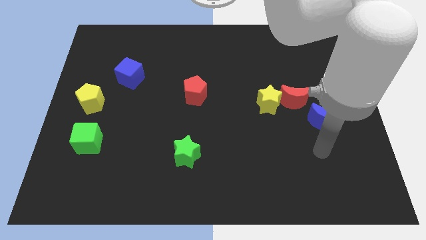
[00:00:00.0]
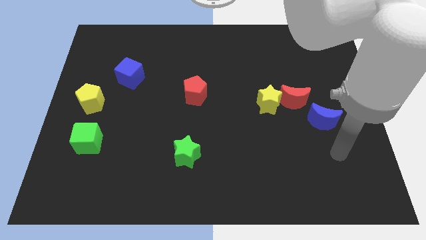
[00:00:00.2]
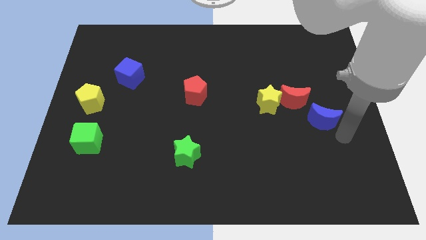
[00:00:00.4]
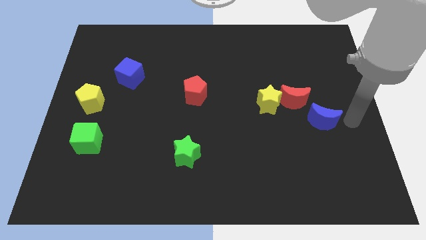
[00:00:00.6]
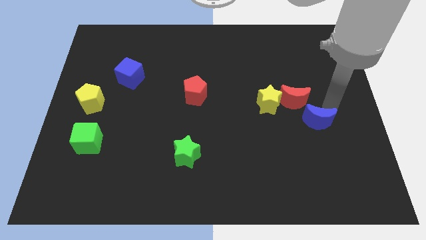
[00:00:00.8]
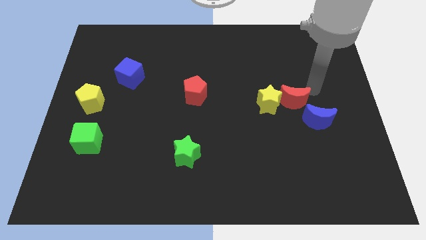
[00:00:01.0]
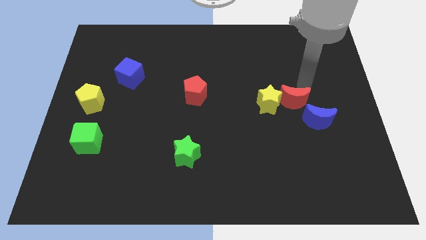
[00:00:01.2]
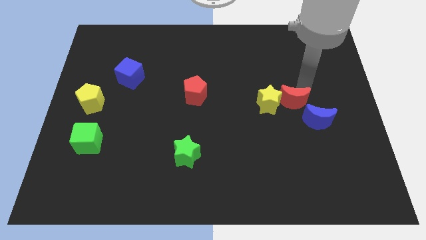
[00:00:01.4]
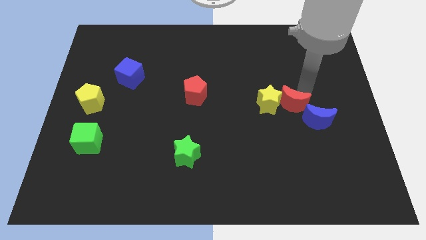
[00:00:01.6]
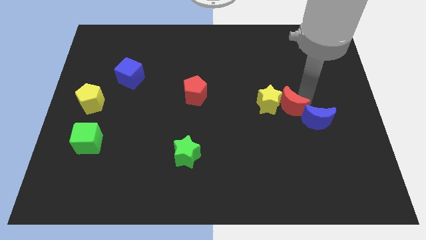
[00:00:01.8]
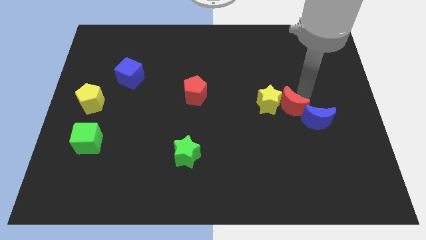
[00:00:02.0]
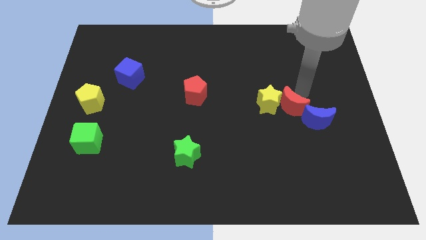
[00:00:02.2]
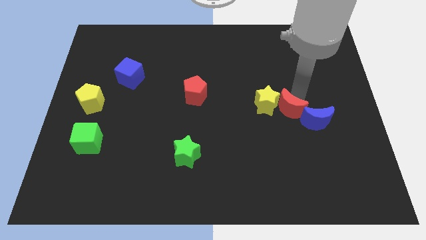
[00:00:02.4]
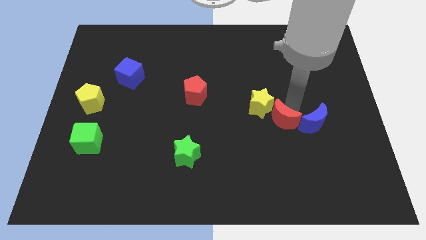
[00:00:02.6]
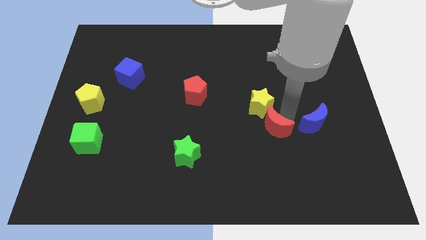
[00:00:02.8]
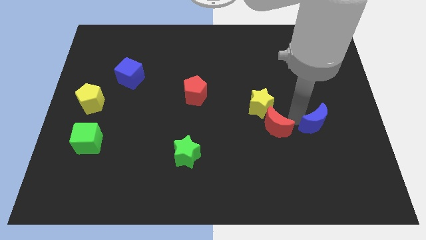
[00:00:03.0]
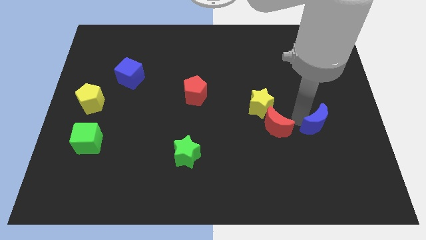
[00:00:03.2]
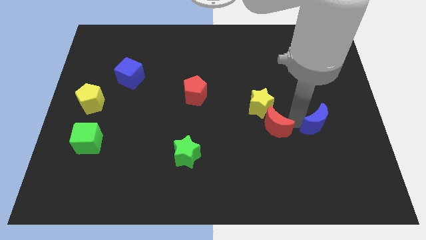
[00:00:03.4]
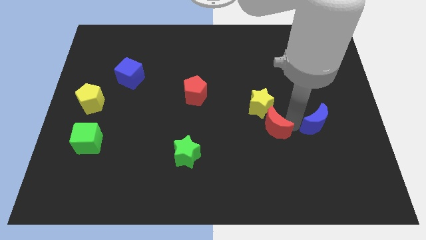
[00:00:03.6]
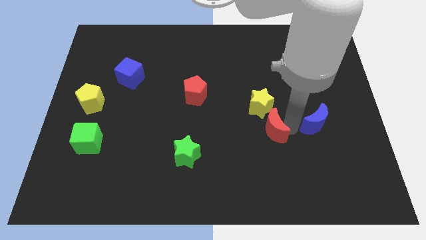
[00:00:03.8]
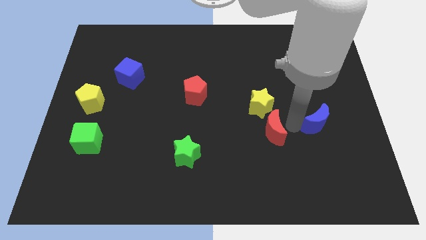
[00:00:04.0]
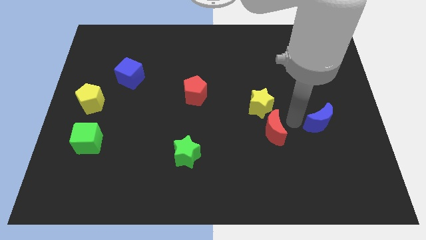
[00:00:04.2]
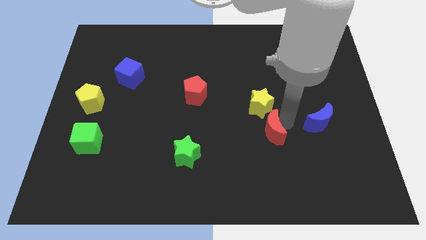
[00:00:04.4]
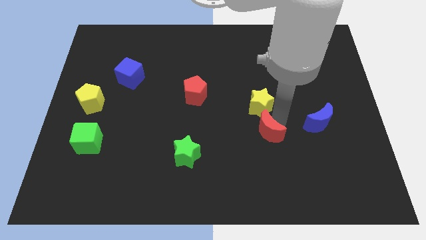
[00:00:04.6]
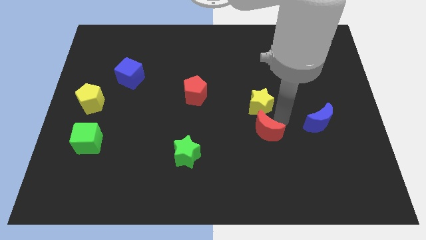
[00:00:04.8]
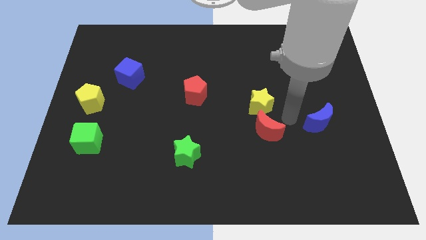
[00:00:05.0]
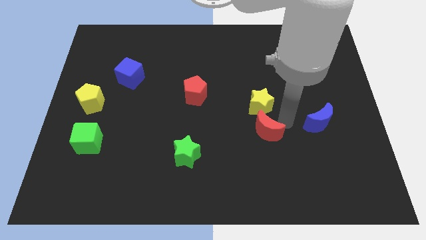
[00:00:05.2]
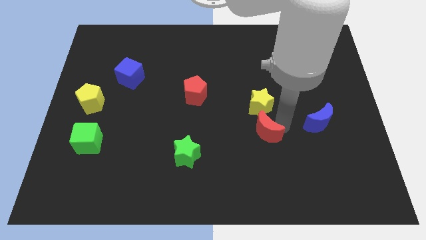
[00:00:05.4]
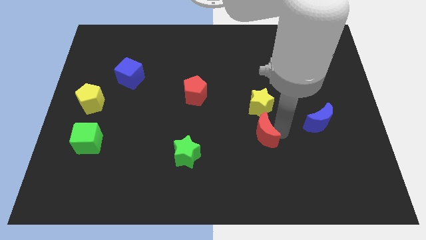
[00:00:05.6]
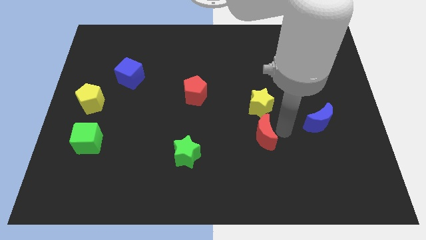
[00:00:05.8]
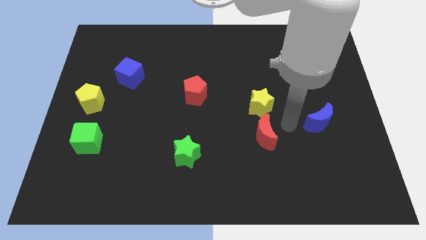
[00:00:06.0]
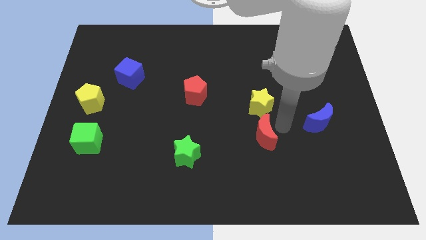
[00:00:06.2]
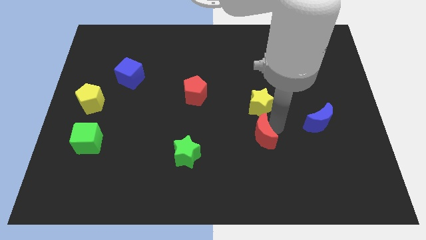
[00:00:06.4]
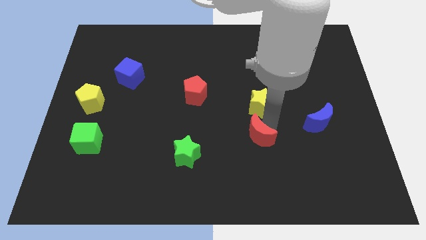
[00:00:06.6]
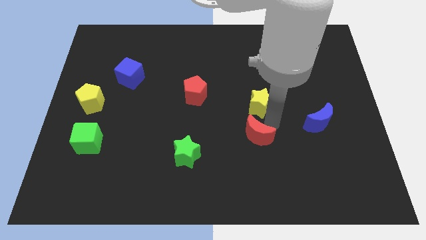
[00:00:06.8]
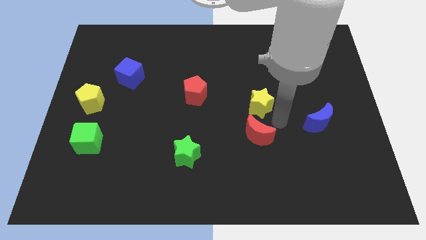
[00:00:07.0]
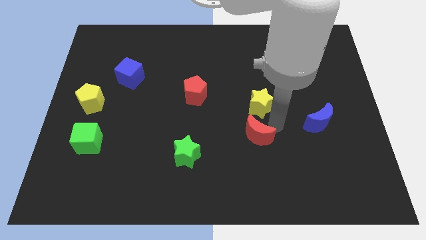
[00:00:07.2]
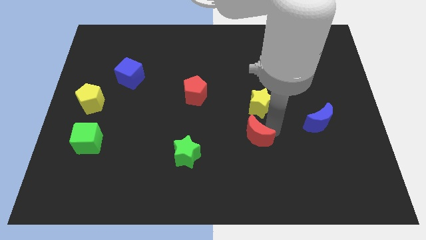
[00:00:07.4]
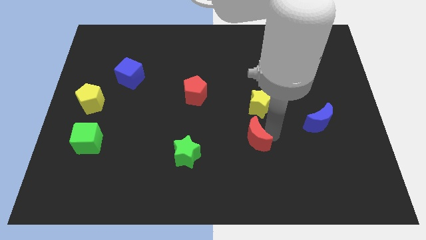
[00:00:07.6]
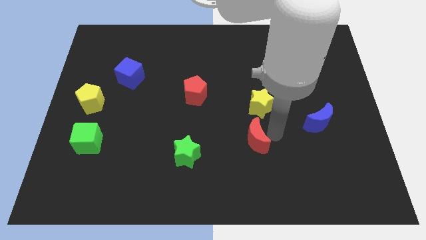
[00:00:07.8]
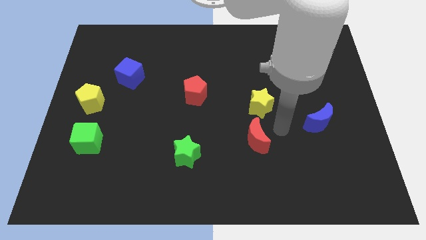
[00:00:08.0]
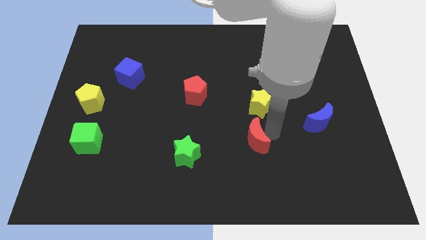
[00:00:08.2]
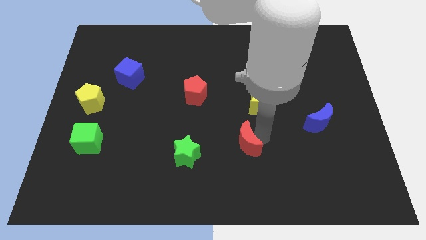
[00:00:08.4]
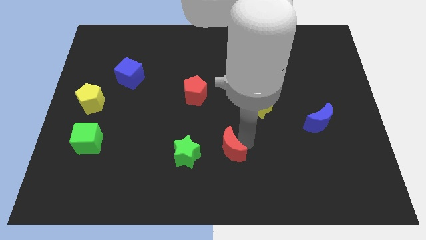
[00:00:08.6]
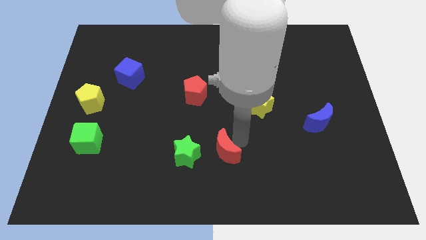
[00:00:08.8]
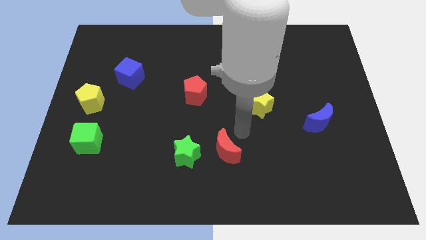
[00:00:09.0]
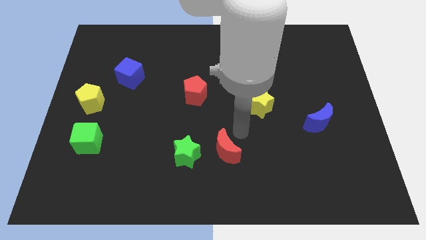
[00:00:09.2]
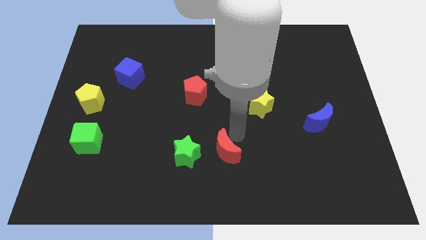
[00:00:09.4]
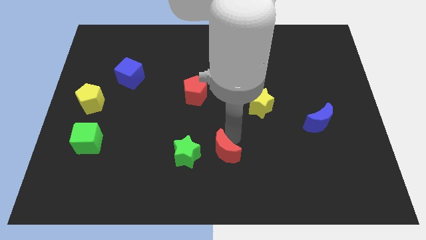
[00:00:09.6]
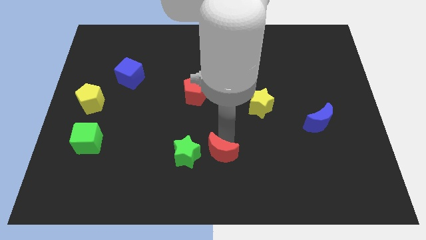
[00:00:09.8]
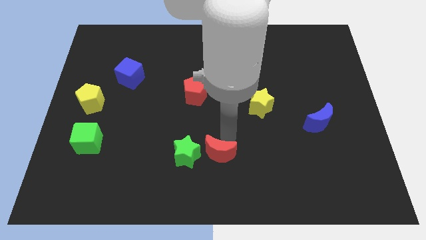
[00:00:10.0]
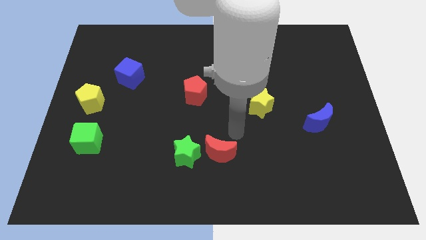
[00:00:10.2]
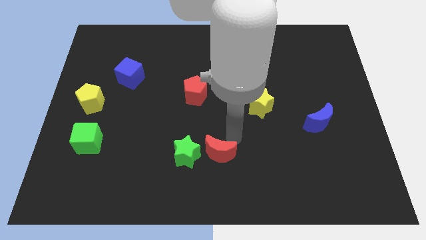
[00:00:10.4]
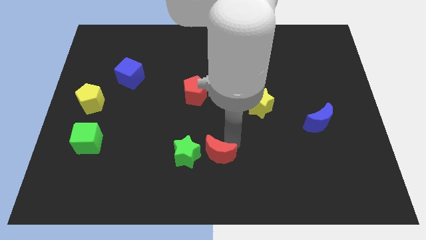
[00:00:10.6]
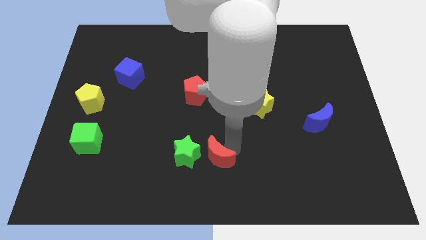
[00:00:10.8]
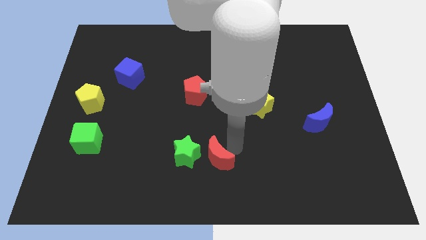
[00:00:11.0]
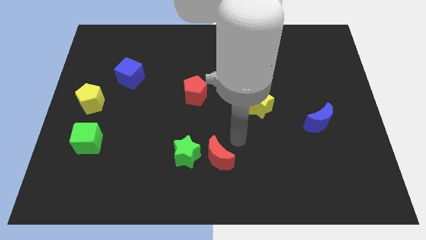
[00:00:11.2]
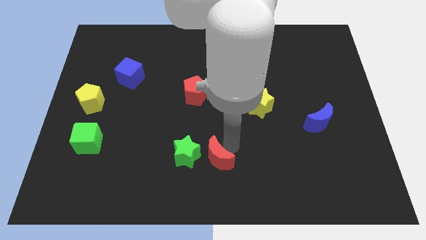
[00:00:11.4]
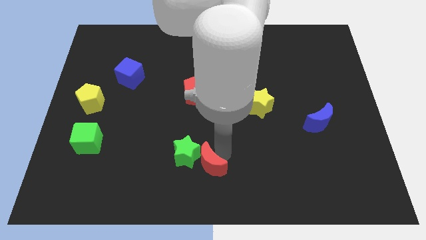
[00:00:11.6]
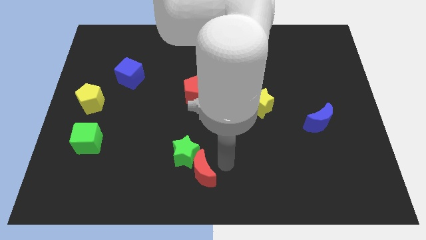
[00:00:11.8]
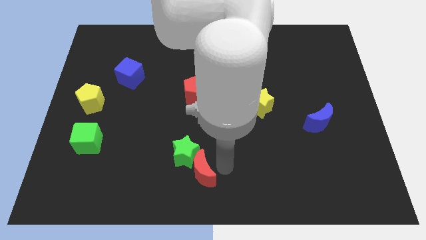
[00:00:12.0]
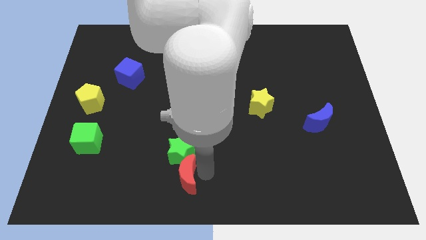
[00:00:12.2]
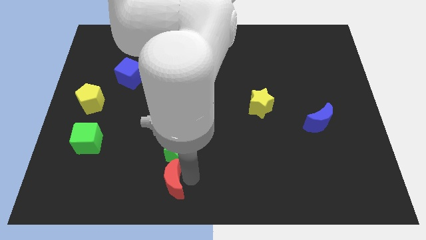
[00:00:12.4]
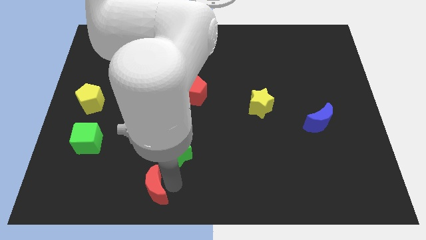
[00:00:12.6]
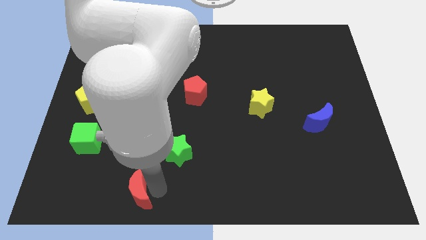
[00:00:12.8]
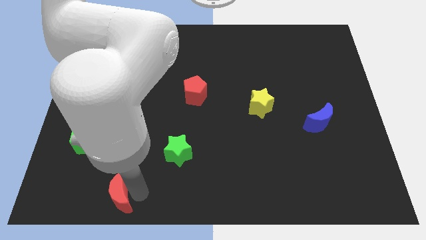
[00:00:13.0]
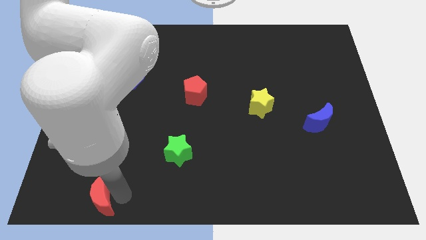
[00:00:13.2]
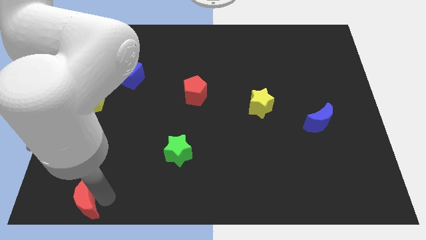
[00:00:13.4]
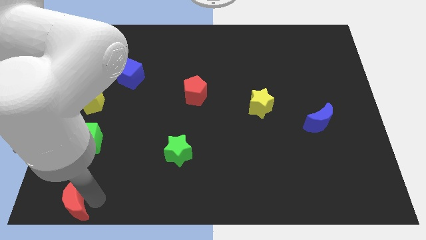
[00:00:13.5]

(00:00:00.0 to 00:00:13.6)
slide the red moon to the lower left corner
